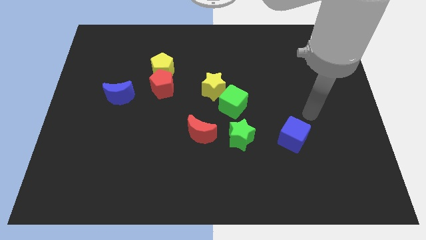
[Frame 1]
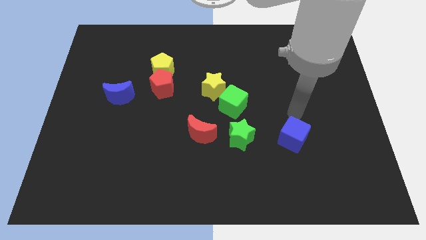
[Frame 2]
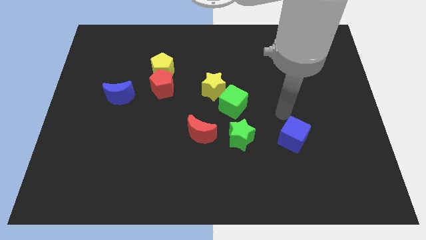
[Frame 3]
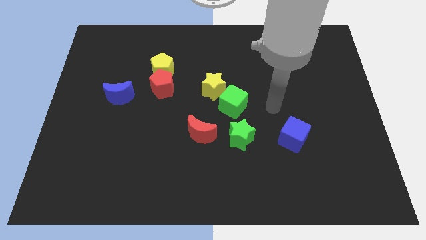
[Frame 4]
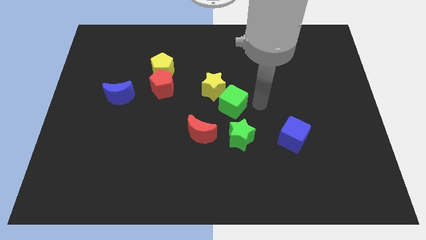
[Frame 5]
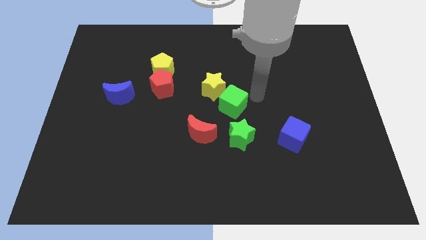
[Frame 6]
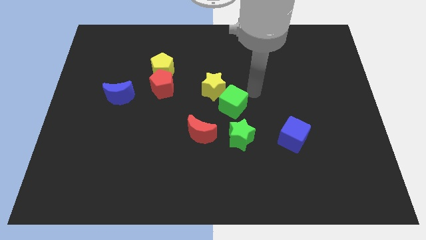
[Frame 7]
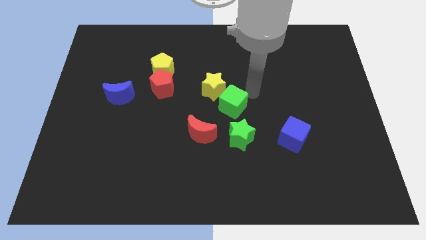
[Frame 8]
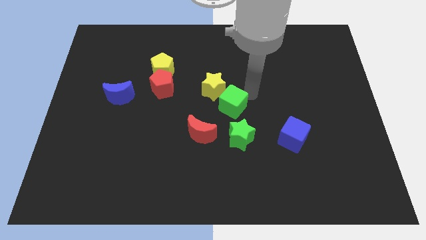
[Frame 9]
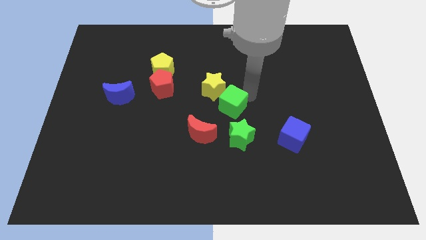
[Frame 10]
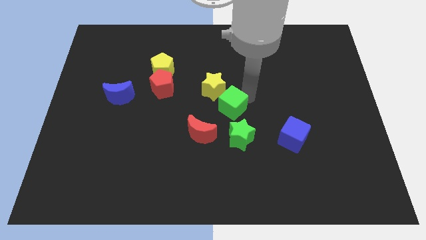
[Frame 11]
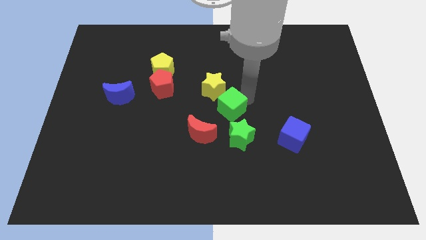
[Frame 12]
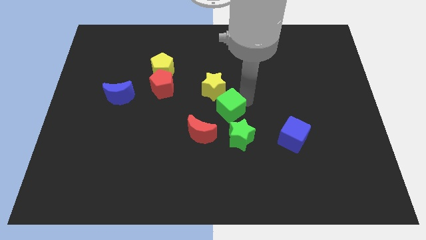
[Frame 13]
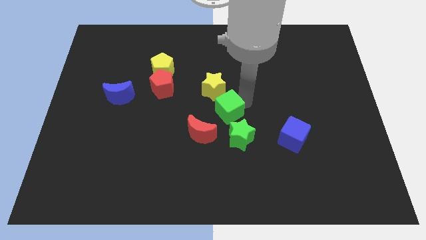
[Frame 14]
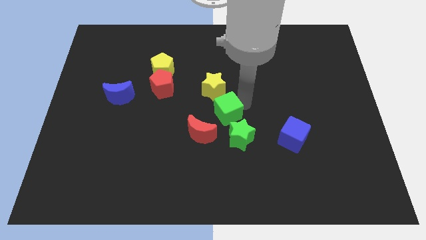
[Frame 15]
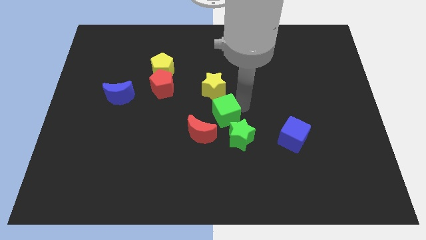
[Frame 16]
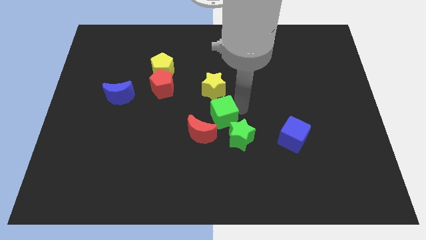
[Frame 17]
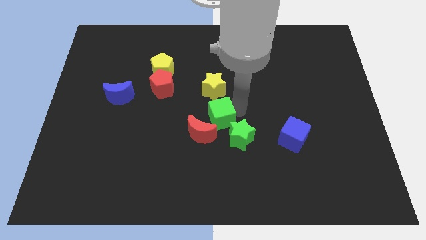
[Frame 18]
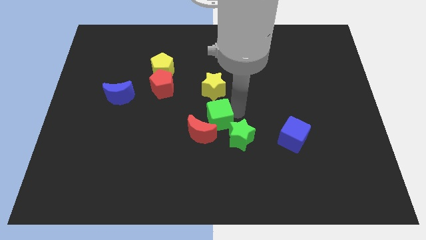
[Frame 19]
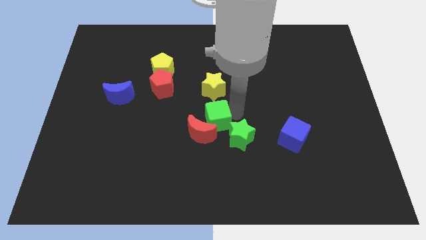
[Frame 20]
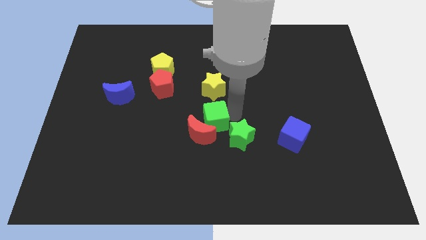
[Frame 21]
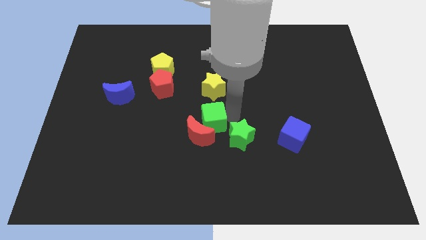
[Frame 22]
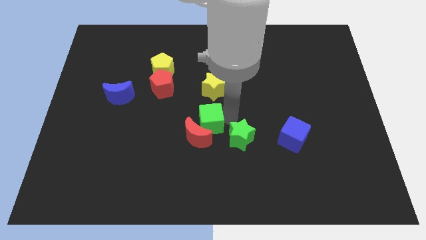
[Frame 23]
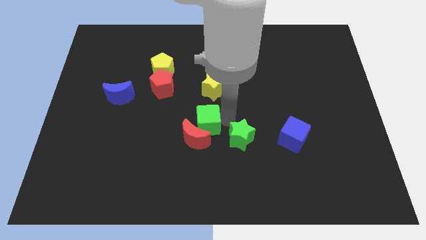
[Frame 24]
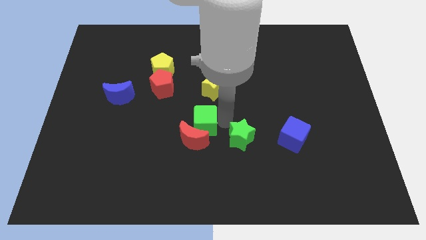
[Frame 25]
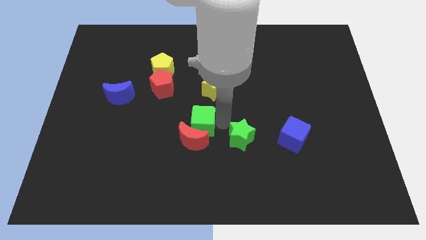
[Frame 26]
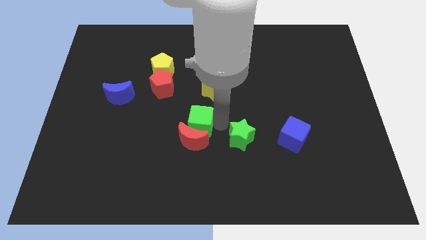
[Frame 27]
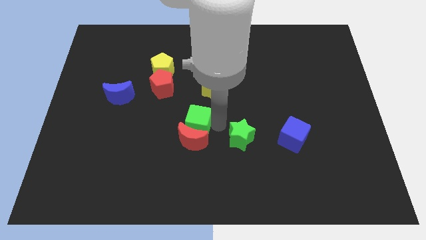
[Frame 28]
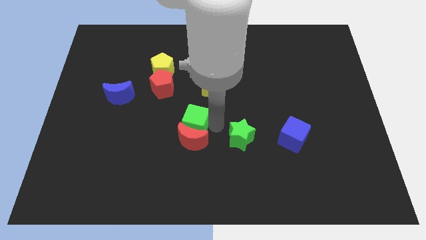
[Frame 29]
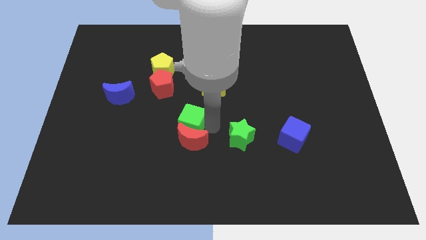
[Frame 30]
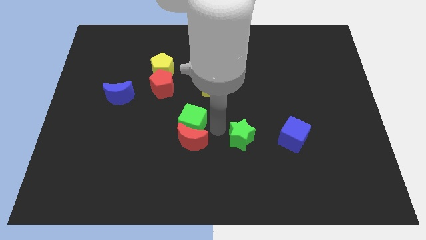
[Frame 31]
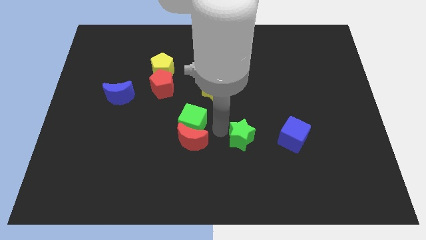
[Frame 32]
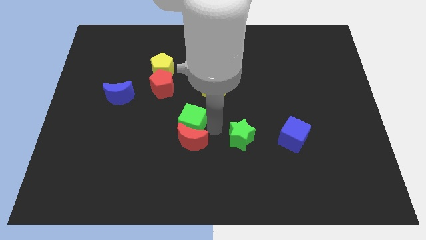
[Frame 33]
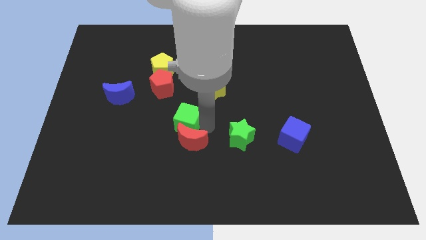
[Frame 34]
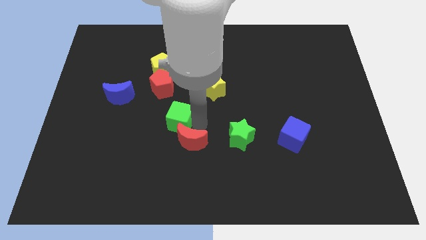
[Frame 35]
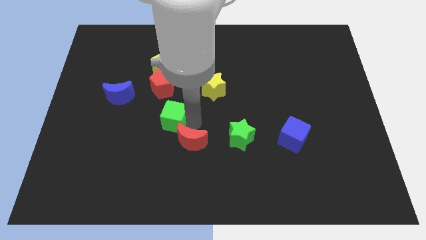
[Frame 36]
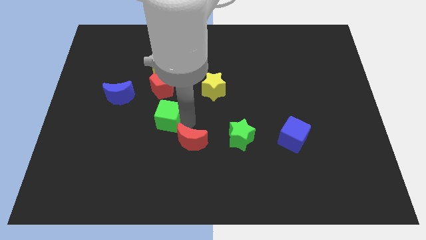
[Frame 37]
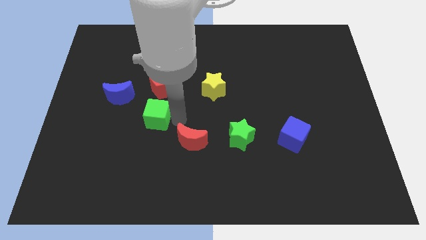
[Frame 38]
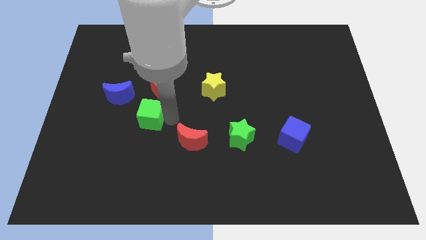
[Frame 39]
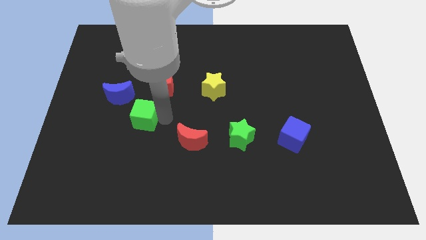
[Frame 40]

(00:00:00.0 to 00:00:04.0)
slide the green cube left

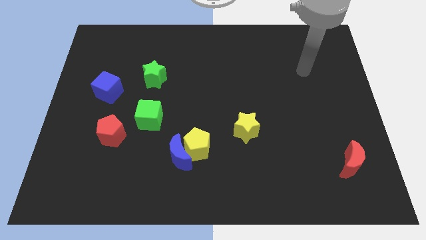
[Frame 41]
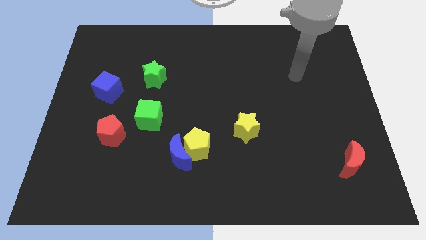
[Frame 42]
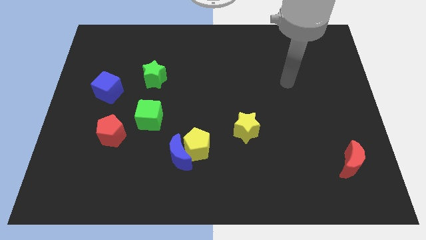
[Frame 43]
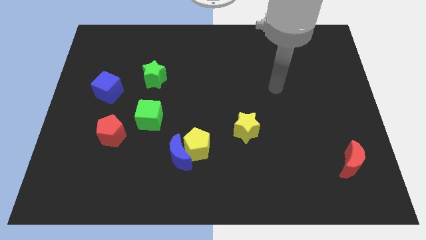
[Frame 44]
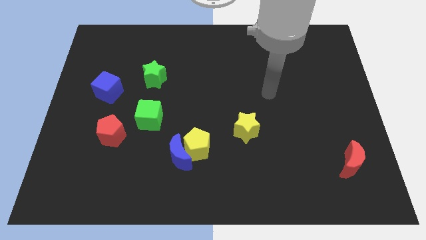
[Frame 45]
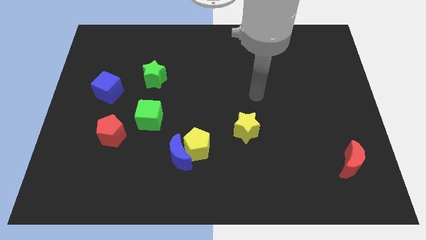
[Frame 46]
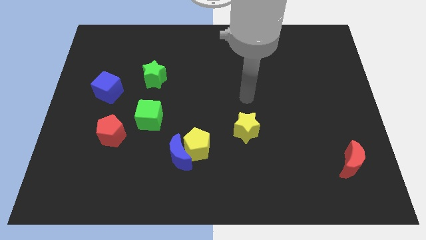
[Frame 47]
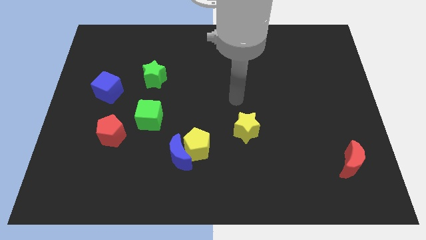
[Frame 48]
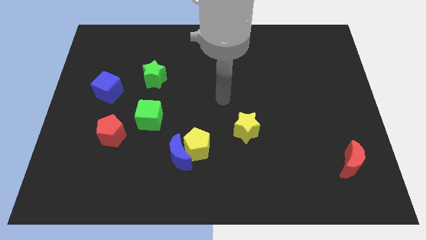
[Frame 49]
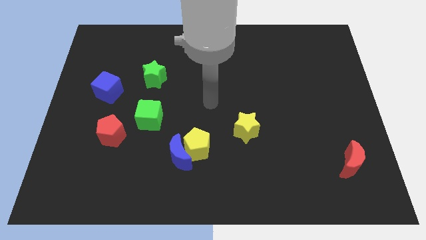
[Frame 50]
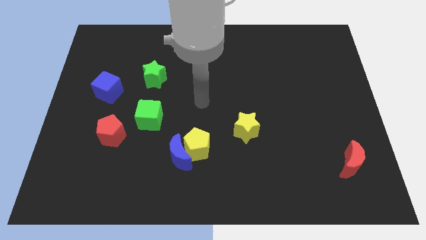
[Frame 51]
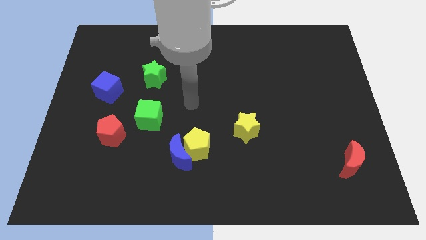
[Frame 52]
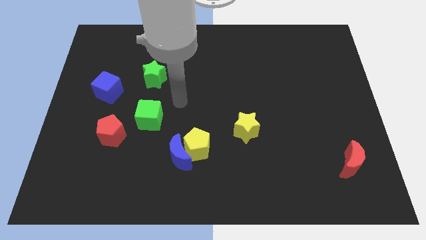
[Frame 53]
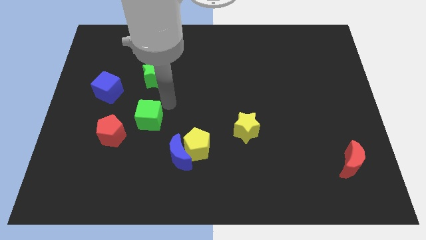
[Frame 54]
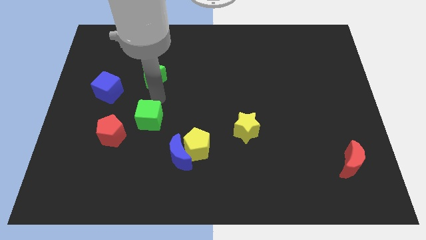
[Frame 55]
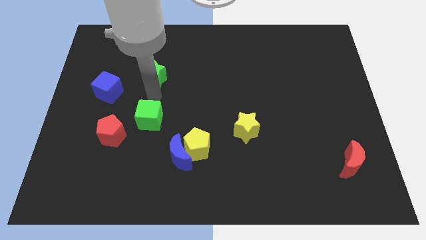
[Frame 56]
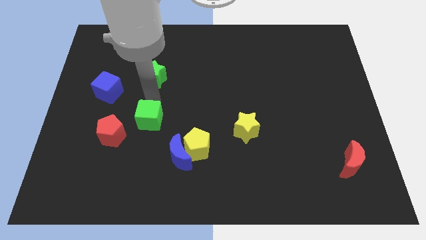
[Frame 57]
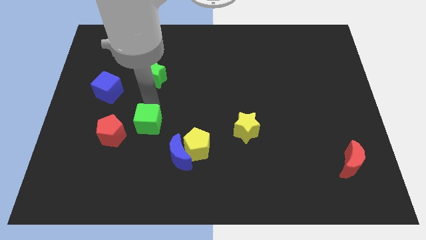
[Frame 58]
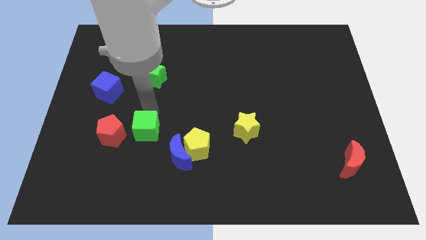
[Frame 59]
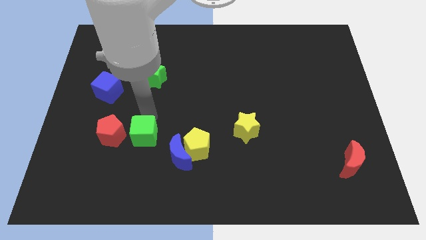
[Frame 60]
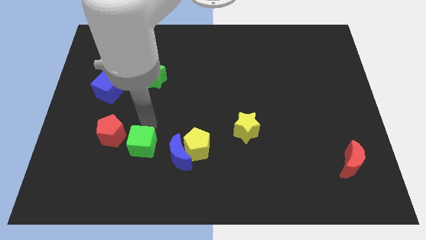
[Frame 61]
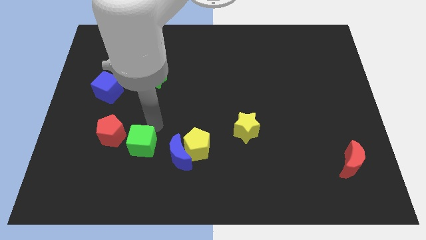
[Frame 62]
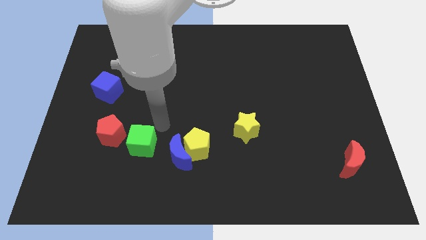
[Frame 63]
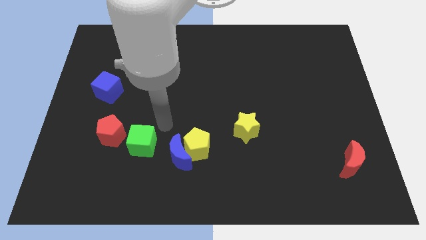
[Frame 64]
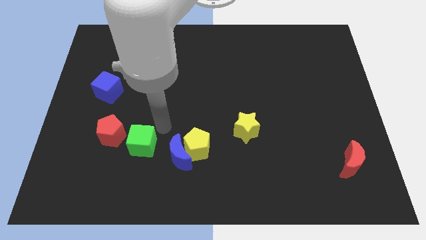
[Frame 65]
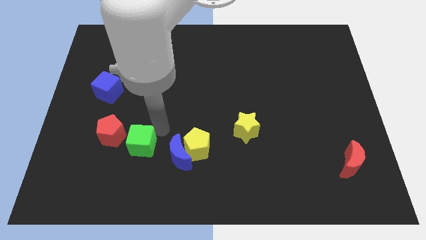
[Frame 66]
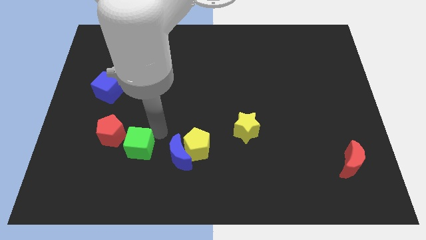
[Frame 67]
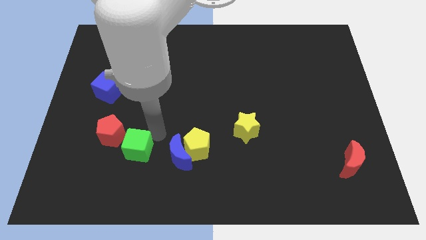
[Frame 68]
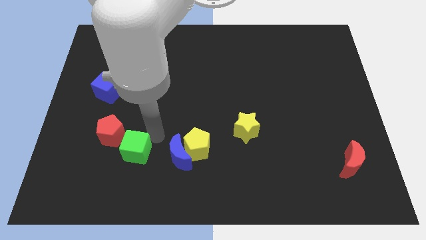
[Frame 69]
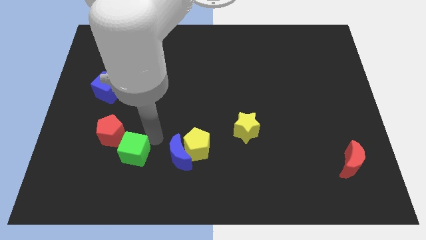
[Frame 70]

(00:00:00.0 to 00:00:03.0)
slide the green cube down and left diagonally a little bit

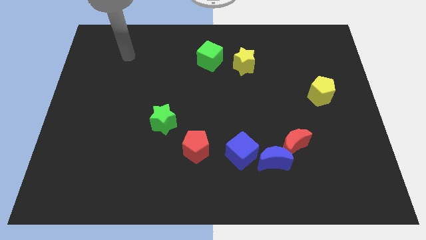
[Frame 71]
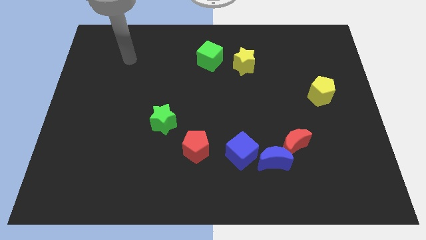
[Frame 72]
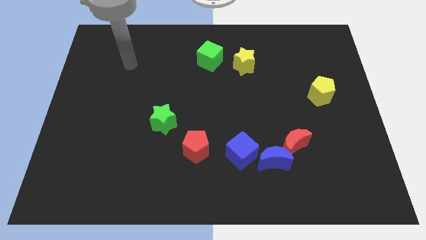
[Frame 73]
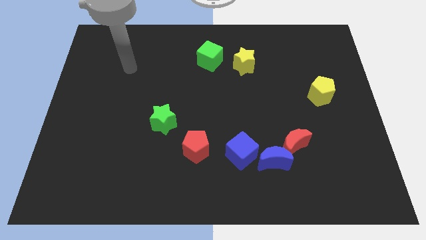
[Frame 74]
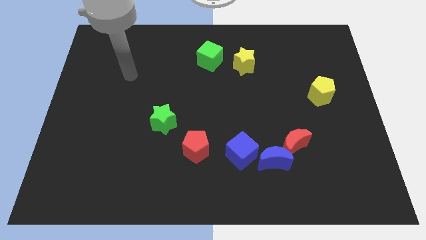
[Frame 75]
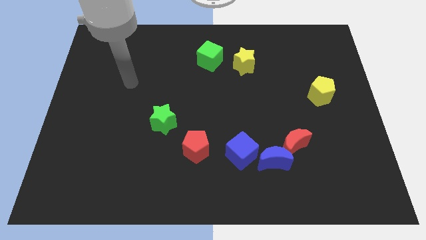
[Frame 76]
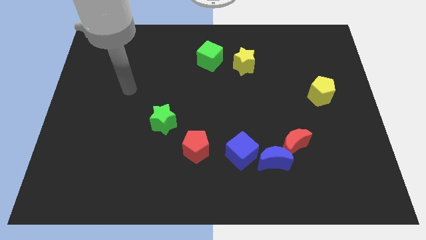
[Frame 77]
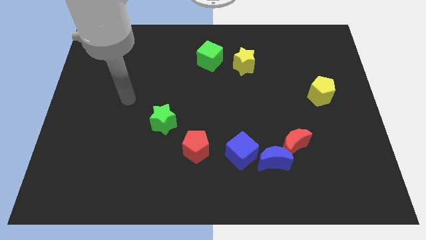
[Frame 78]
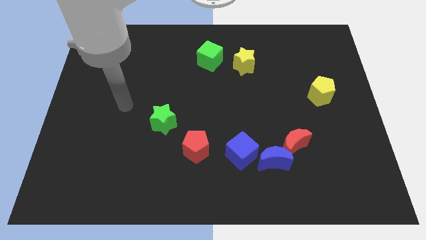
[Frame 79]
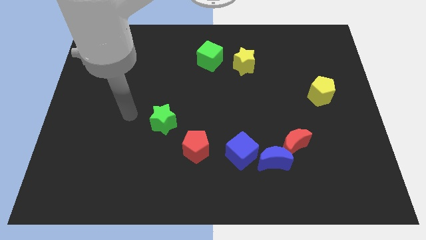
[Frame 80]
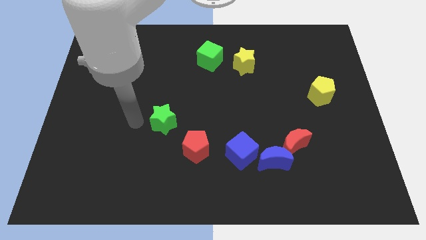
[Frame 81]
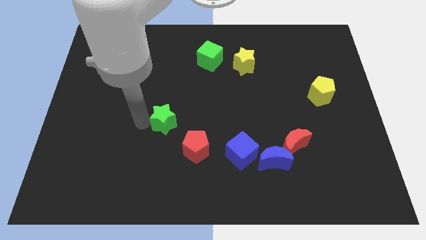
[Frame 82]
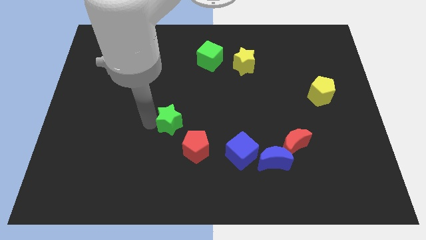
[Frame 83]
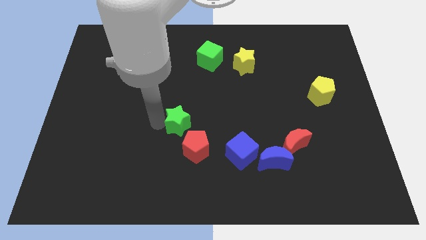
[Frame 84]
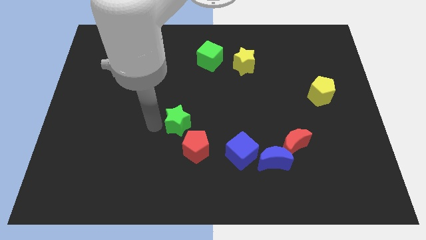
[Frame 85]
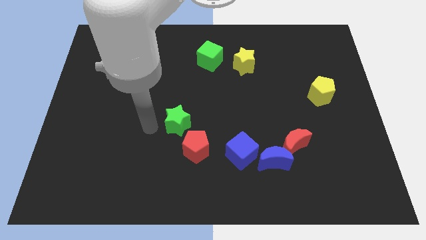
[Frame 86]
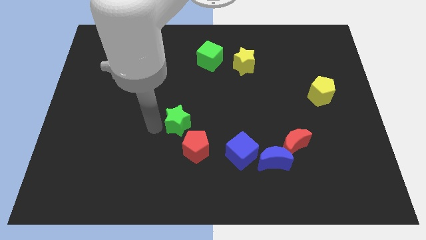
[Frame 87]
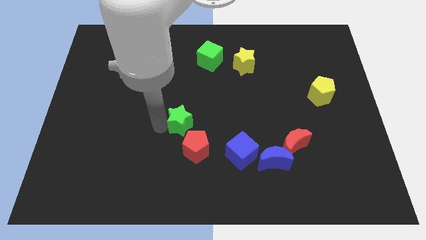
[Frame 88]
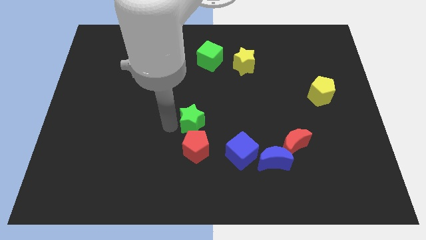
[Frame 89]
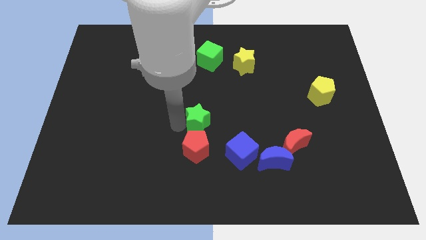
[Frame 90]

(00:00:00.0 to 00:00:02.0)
slightly push the green star right
